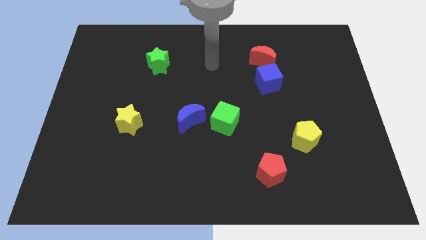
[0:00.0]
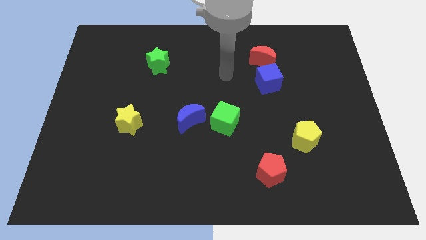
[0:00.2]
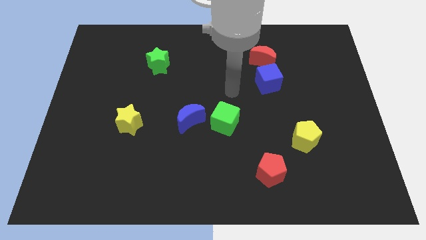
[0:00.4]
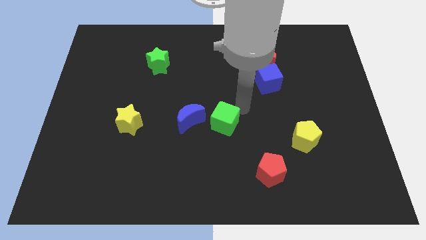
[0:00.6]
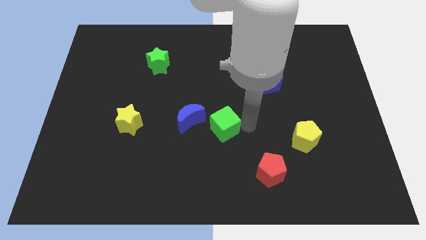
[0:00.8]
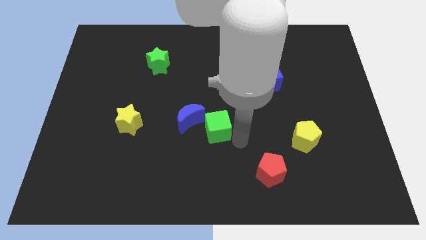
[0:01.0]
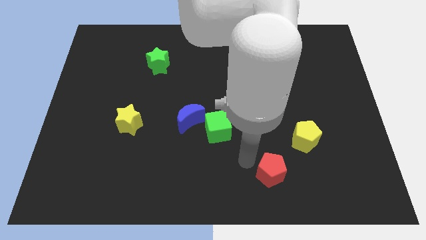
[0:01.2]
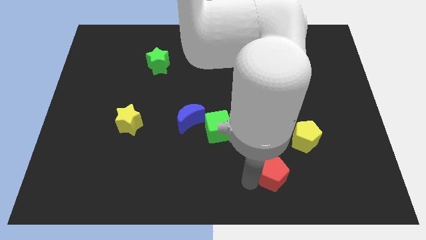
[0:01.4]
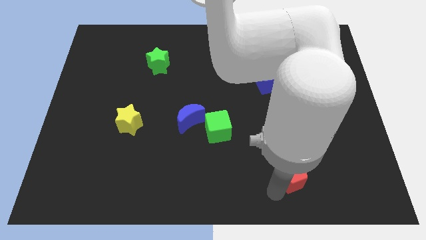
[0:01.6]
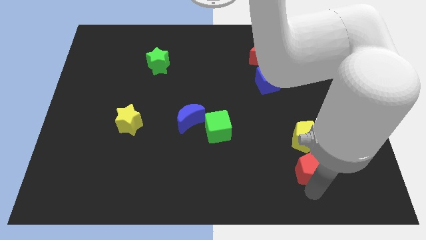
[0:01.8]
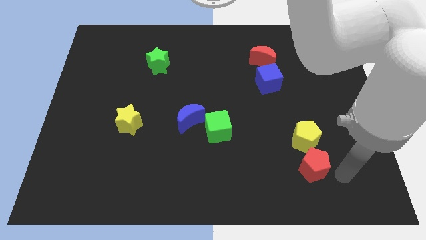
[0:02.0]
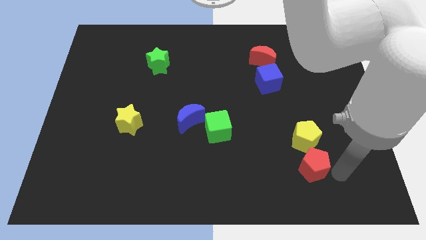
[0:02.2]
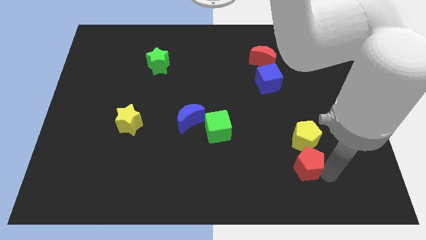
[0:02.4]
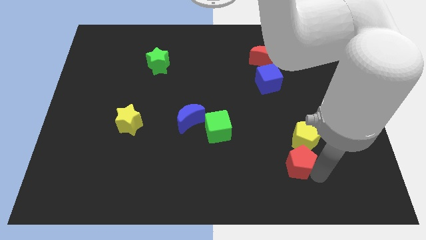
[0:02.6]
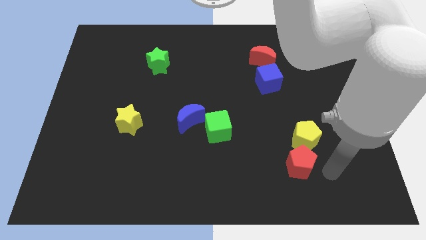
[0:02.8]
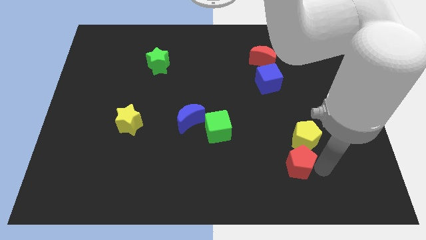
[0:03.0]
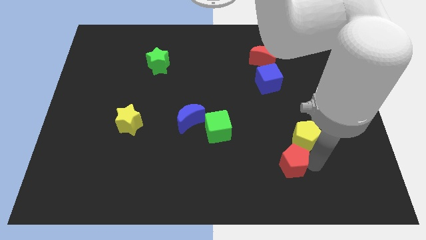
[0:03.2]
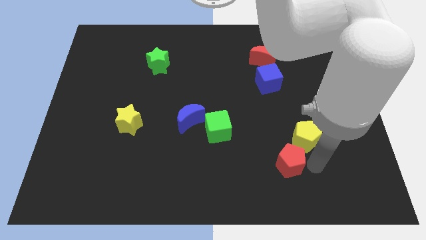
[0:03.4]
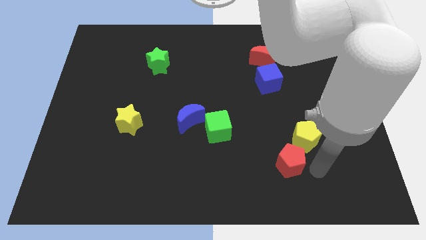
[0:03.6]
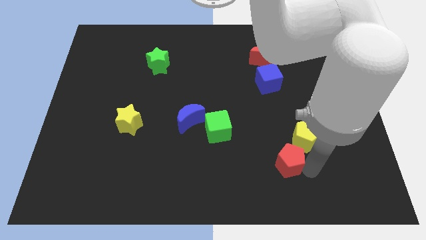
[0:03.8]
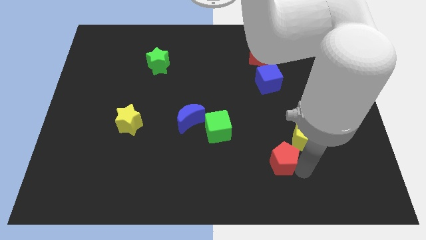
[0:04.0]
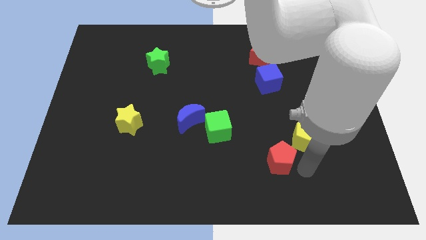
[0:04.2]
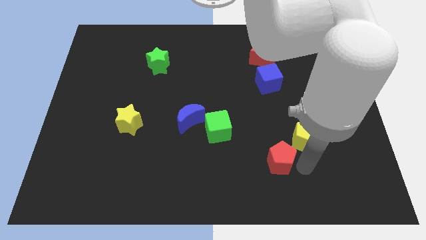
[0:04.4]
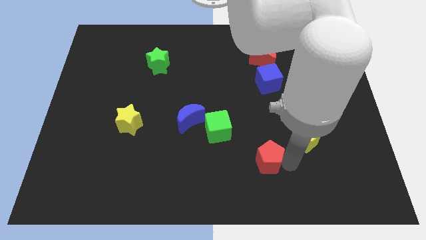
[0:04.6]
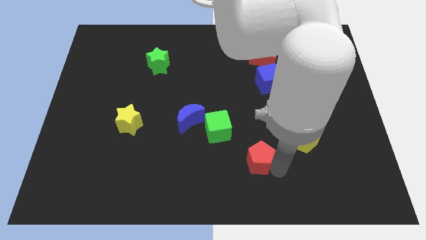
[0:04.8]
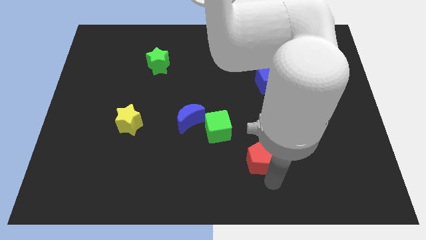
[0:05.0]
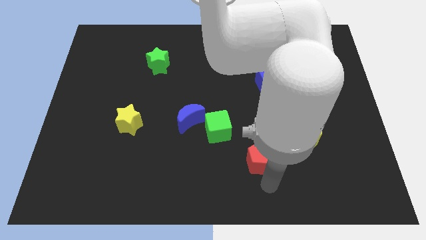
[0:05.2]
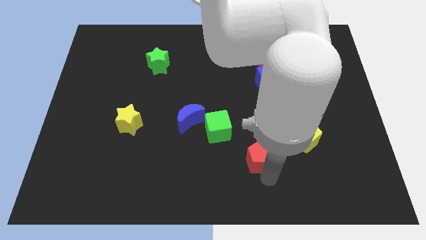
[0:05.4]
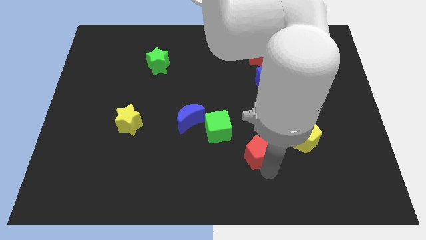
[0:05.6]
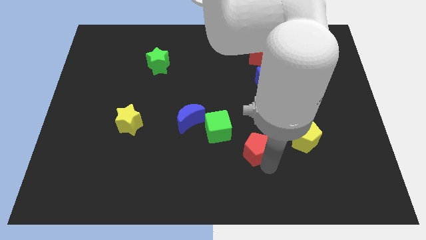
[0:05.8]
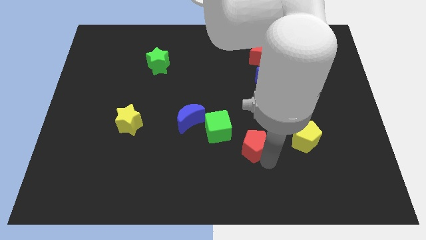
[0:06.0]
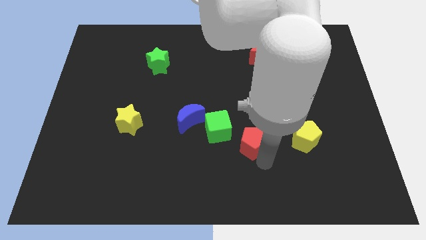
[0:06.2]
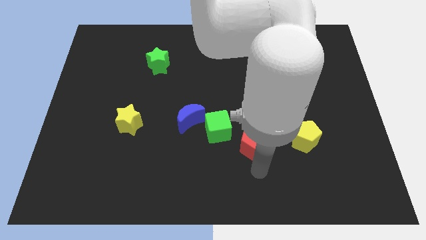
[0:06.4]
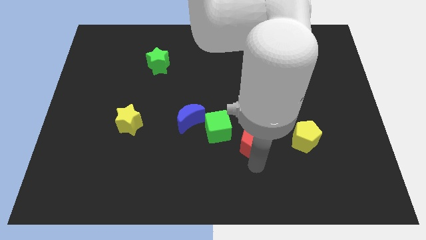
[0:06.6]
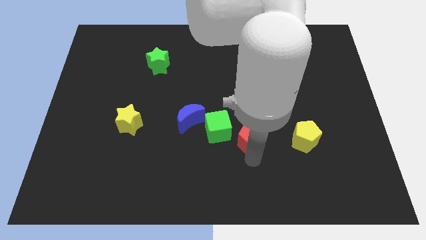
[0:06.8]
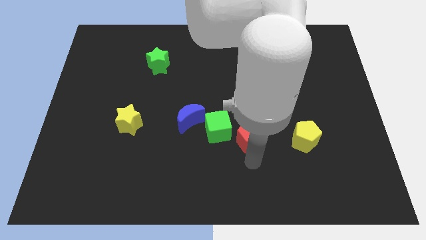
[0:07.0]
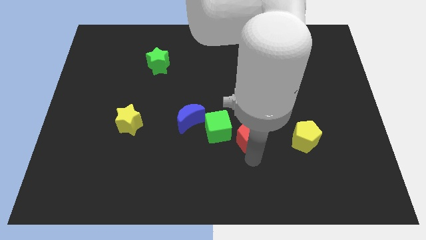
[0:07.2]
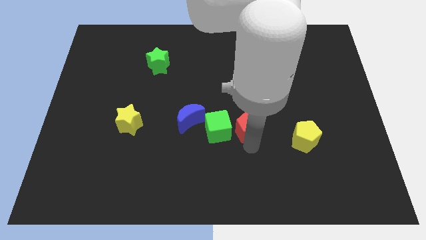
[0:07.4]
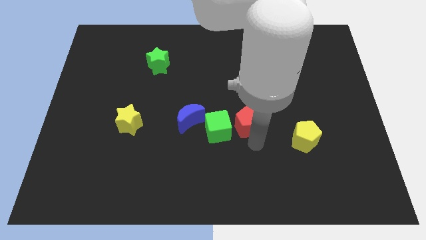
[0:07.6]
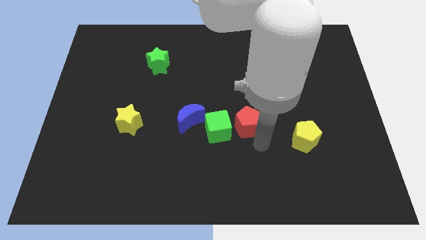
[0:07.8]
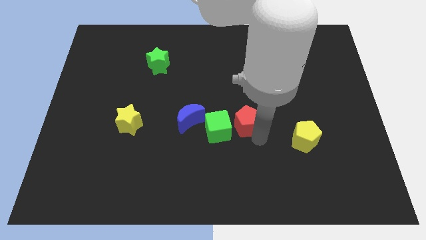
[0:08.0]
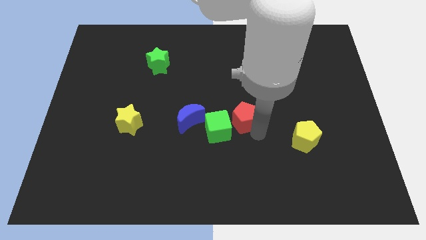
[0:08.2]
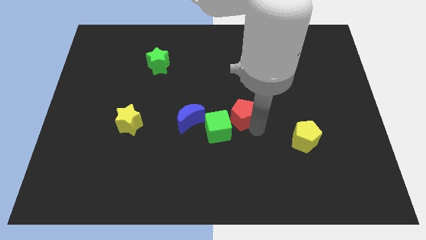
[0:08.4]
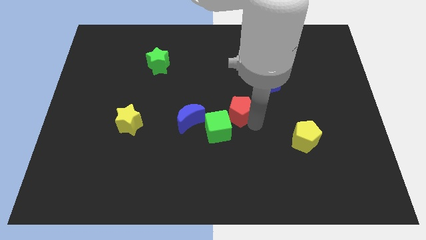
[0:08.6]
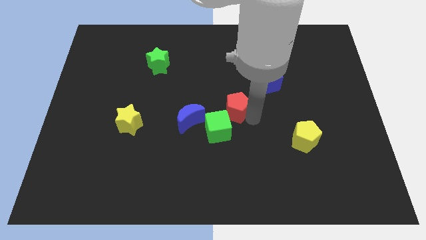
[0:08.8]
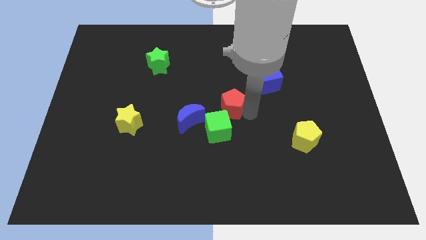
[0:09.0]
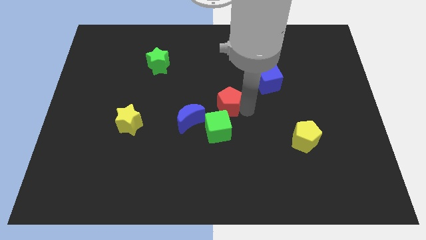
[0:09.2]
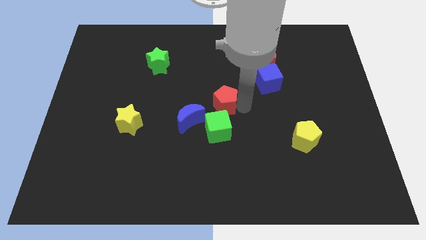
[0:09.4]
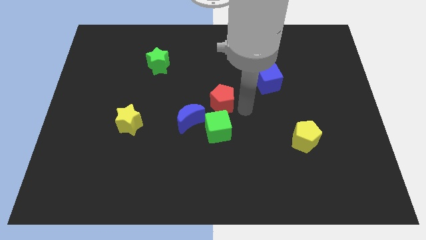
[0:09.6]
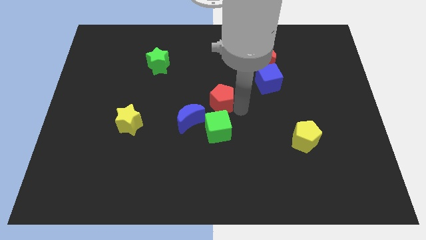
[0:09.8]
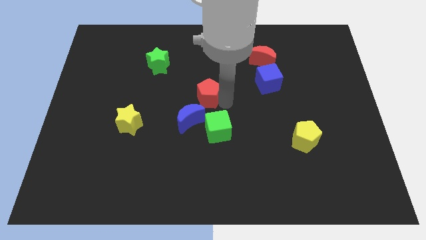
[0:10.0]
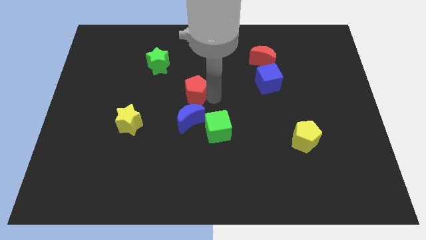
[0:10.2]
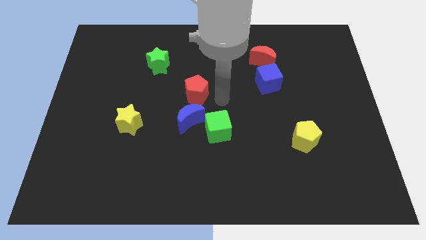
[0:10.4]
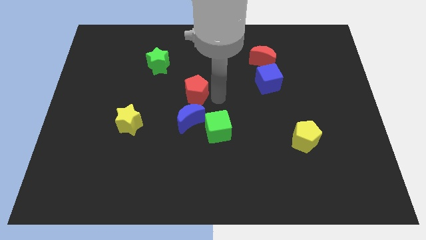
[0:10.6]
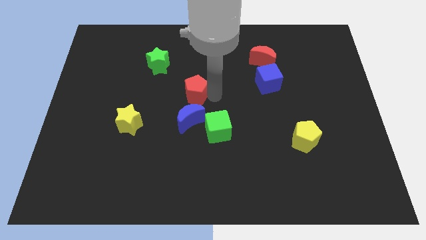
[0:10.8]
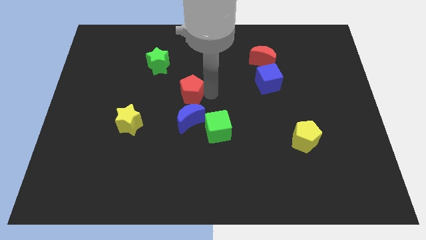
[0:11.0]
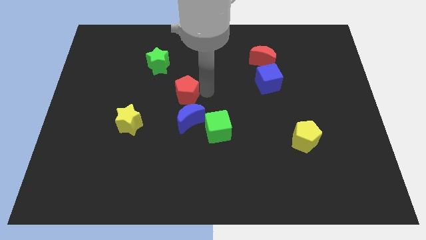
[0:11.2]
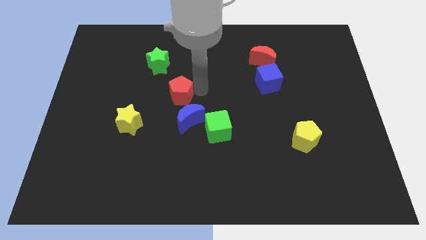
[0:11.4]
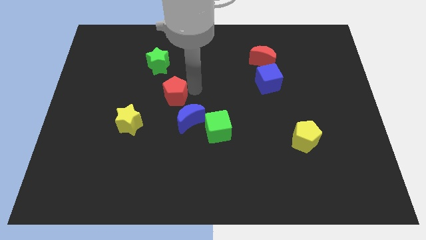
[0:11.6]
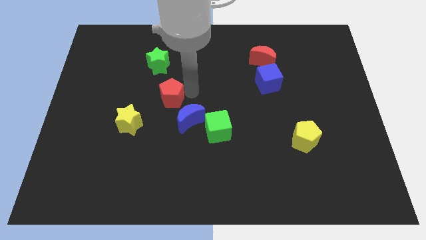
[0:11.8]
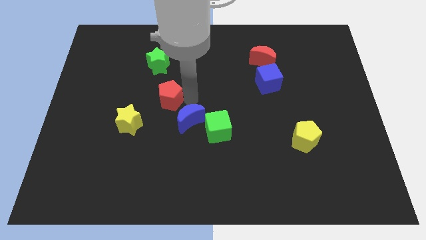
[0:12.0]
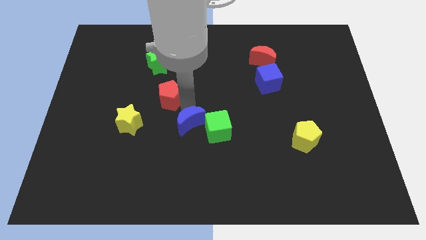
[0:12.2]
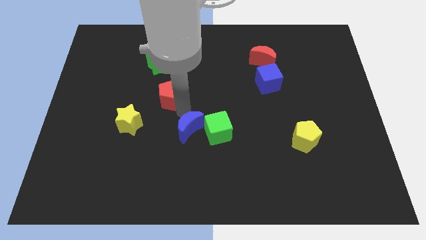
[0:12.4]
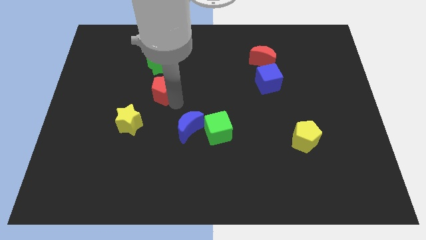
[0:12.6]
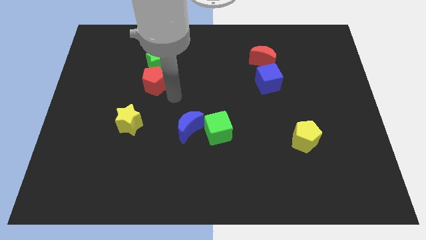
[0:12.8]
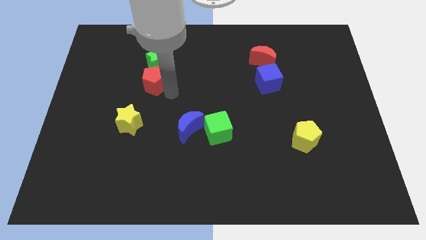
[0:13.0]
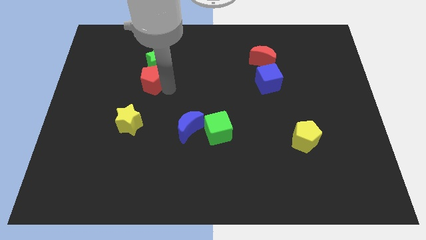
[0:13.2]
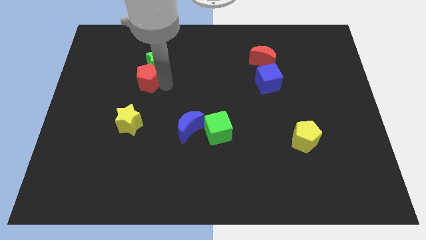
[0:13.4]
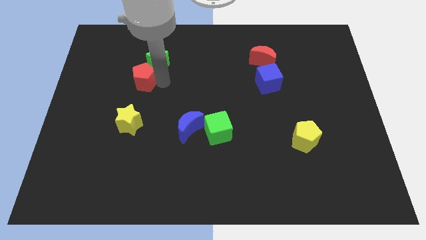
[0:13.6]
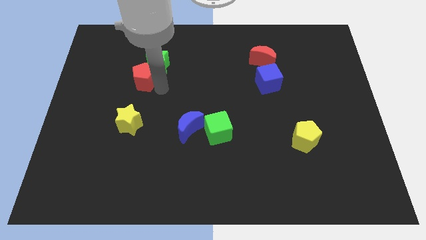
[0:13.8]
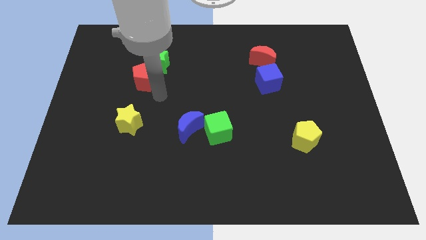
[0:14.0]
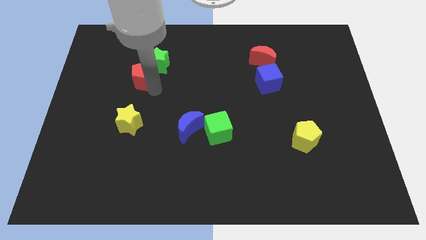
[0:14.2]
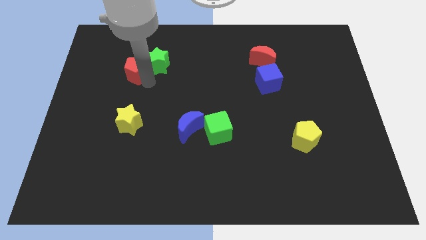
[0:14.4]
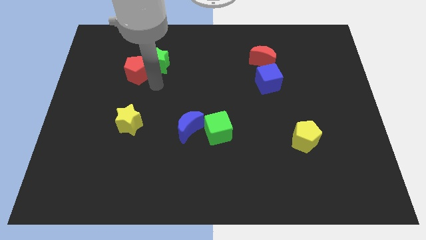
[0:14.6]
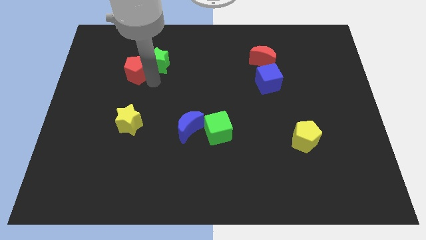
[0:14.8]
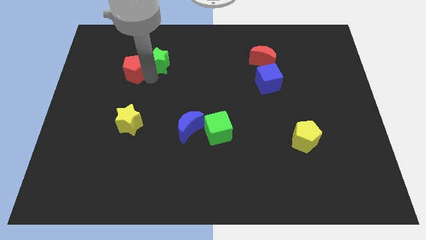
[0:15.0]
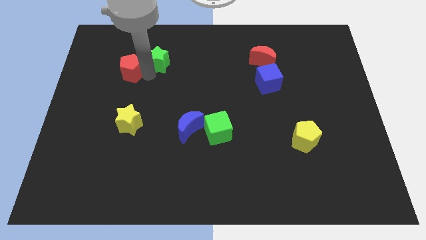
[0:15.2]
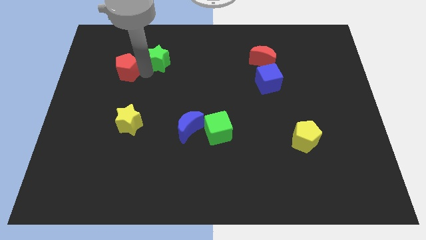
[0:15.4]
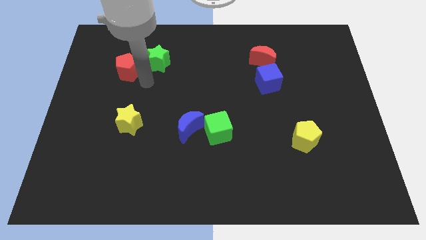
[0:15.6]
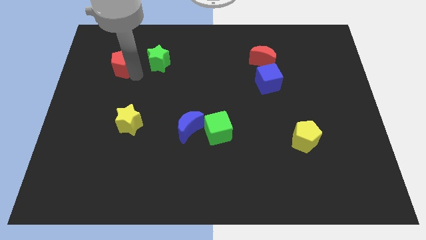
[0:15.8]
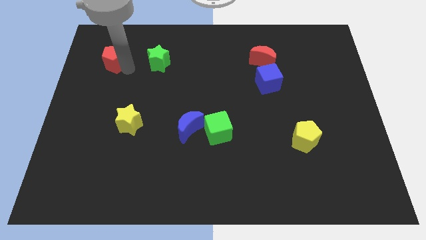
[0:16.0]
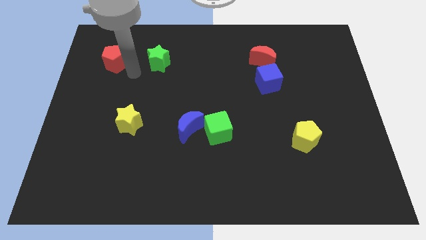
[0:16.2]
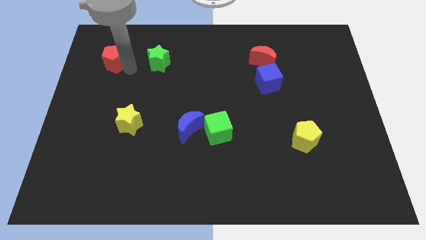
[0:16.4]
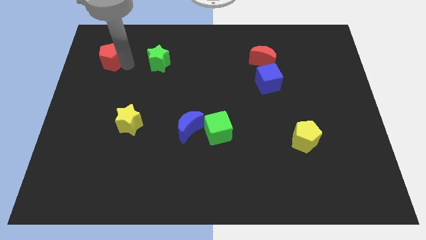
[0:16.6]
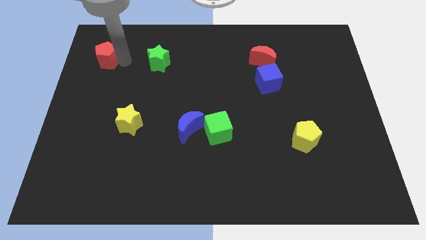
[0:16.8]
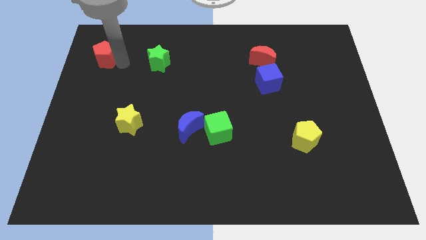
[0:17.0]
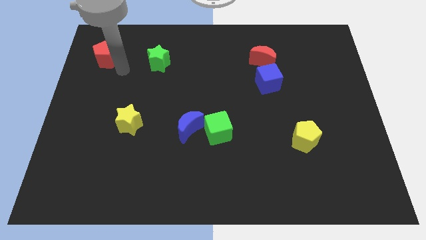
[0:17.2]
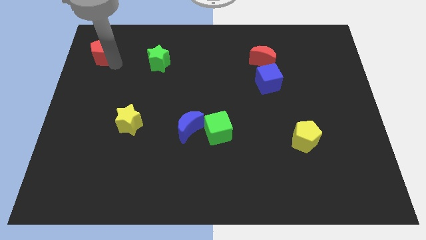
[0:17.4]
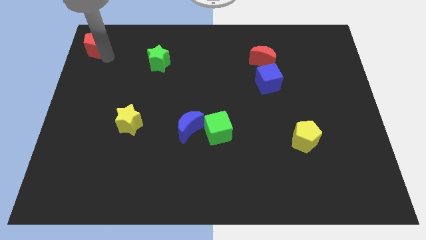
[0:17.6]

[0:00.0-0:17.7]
move the red pentagon to the top left corner
